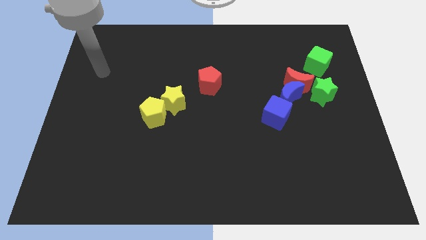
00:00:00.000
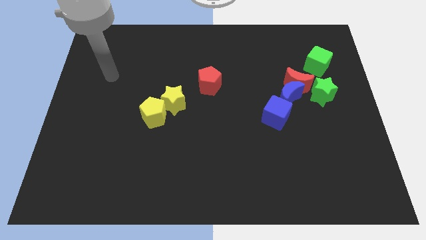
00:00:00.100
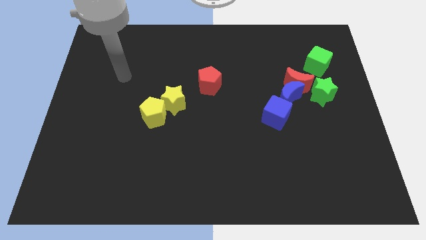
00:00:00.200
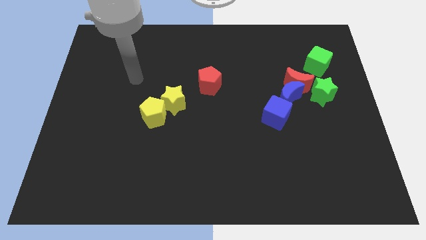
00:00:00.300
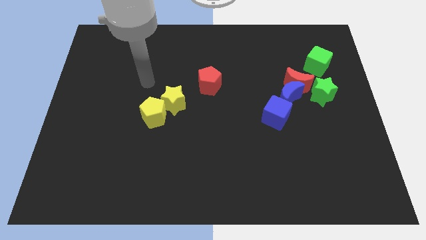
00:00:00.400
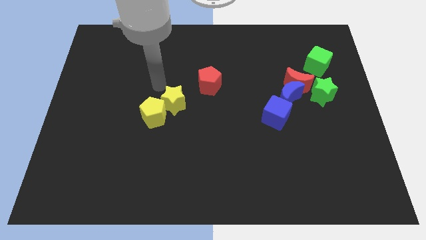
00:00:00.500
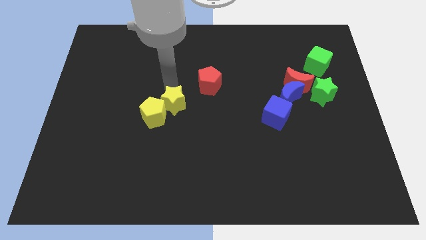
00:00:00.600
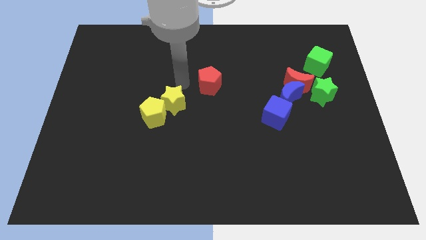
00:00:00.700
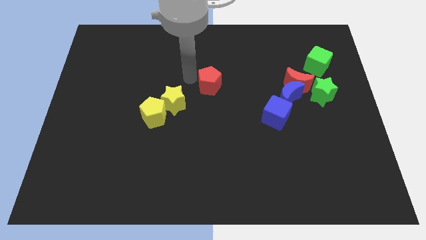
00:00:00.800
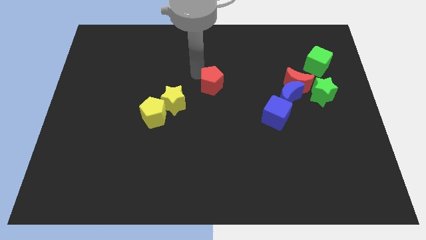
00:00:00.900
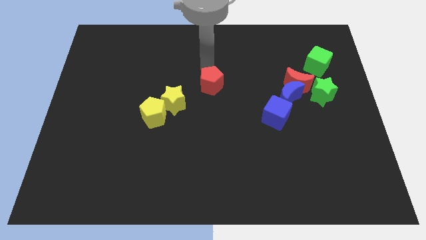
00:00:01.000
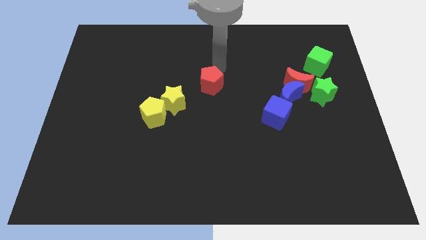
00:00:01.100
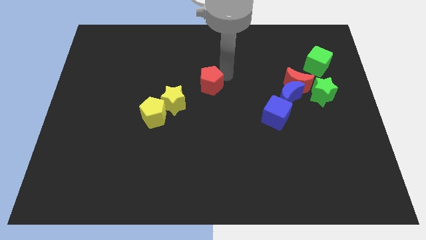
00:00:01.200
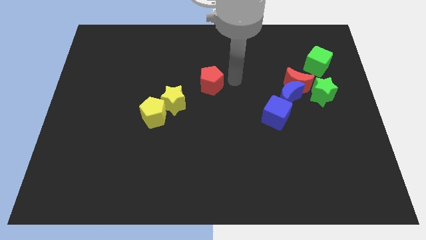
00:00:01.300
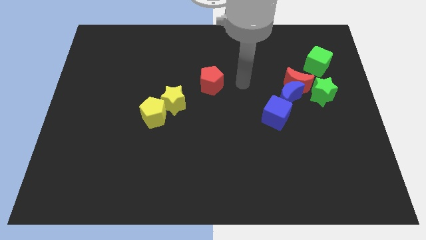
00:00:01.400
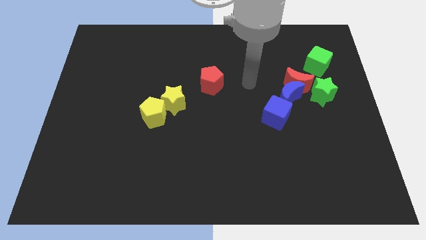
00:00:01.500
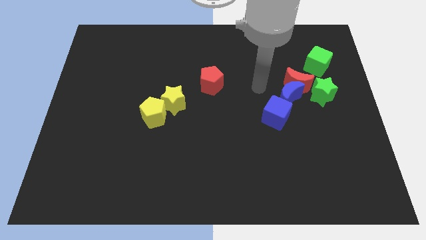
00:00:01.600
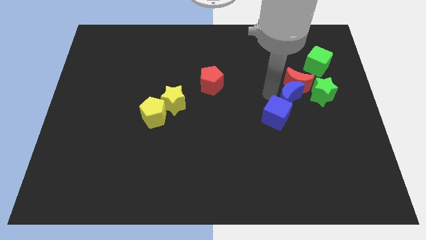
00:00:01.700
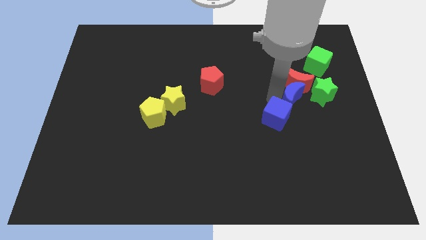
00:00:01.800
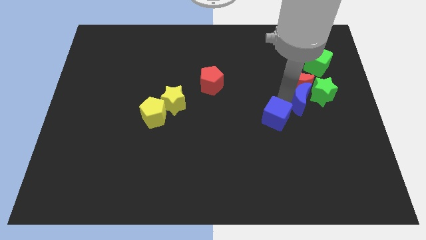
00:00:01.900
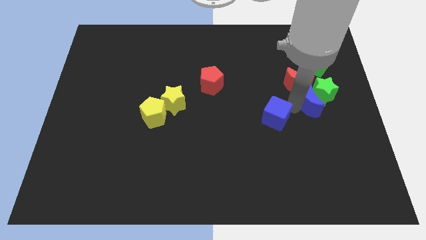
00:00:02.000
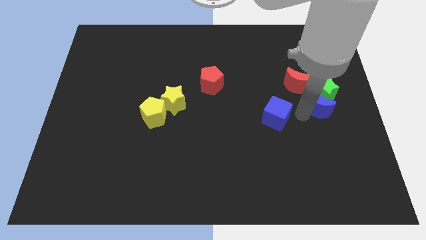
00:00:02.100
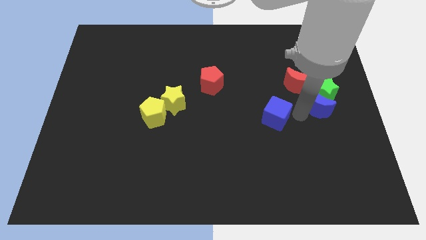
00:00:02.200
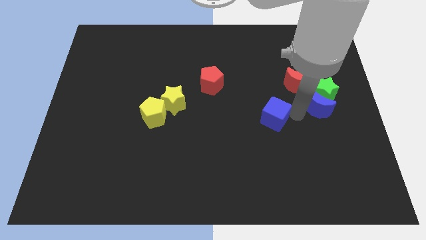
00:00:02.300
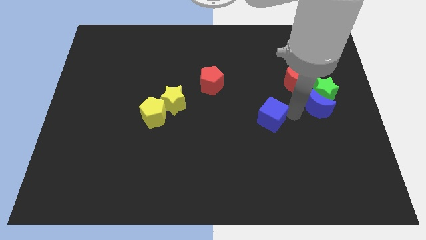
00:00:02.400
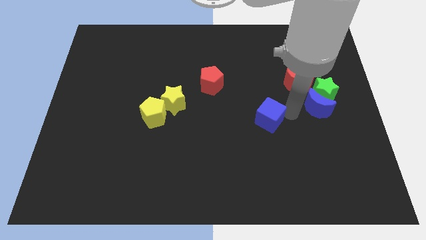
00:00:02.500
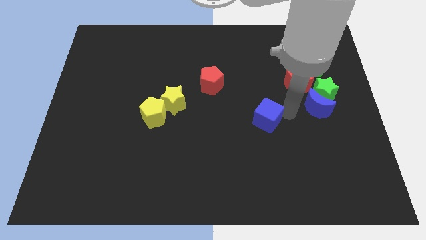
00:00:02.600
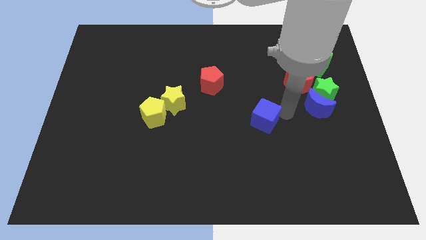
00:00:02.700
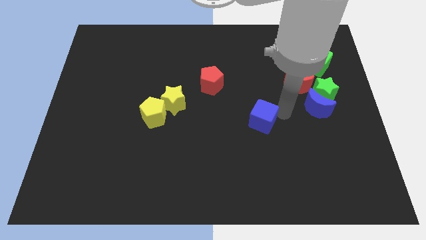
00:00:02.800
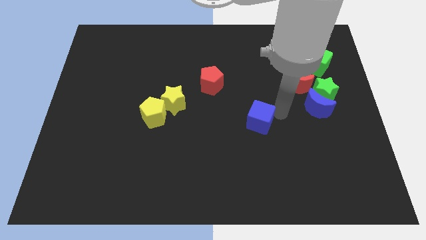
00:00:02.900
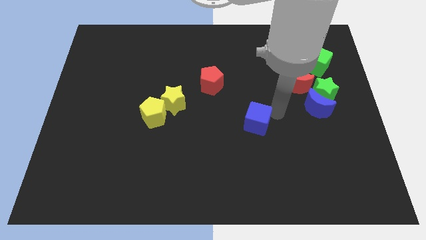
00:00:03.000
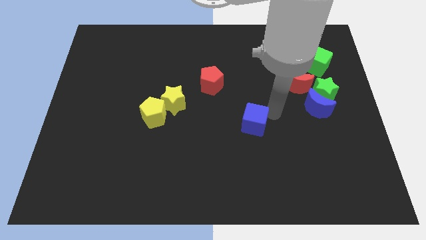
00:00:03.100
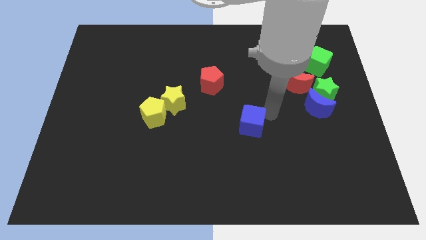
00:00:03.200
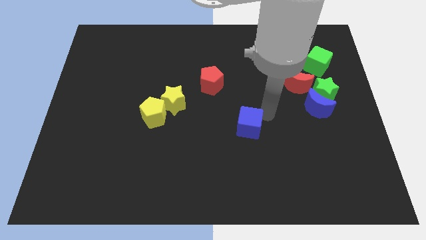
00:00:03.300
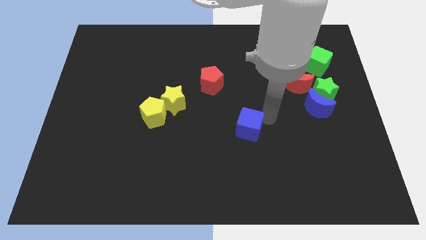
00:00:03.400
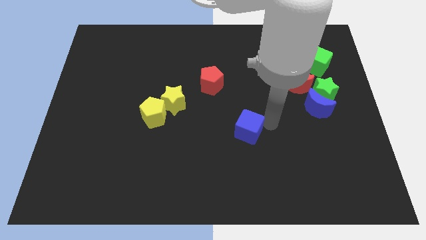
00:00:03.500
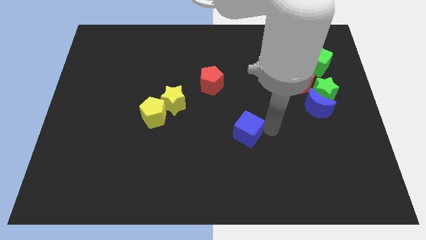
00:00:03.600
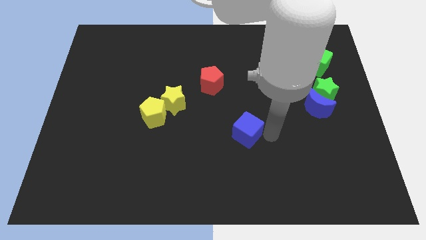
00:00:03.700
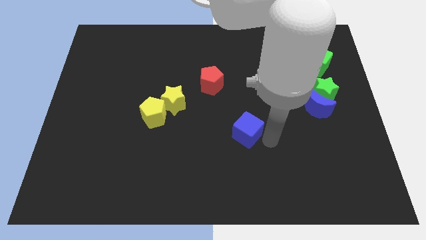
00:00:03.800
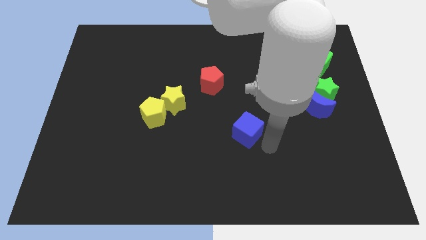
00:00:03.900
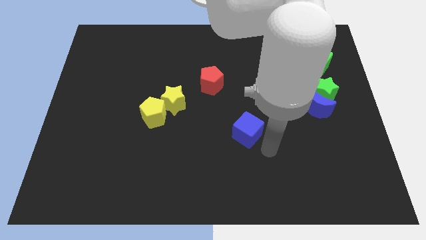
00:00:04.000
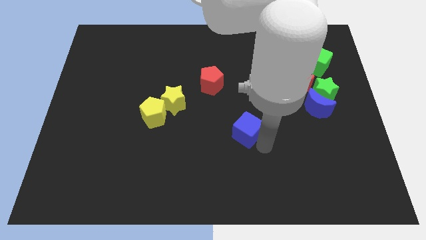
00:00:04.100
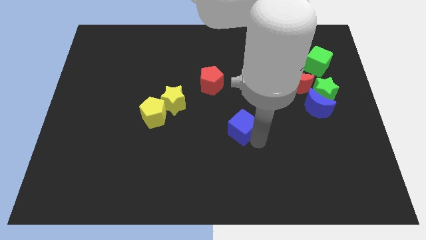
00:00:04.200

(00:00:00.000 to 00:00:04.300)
slightly push the blue cube left

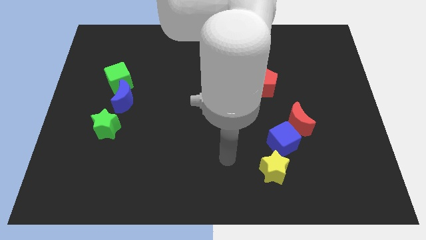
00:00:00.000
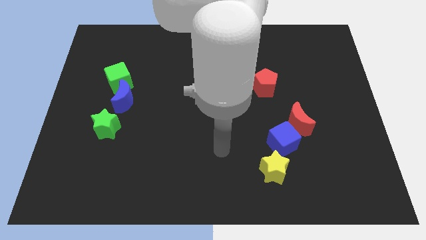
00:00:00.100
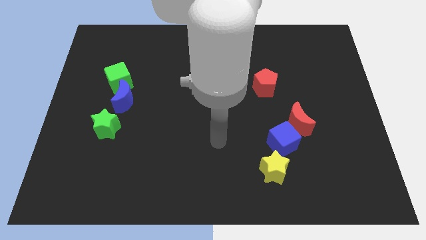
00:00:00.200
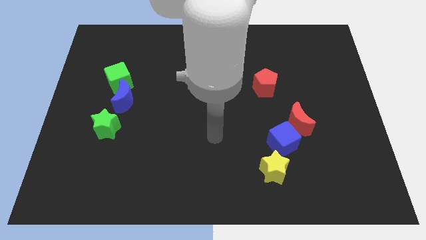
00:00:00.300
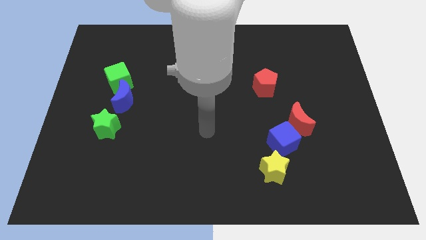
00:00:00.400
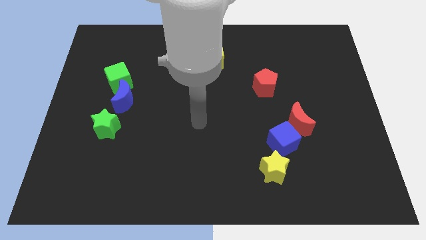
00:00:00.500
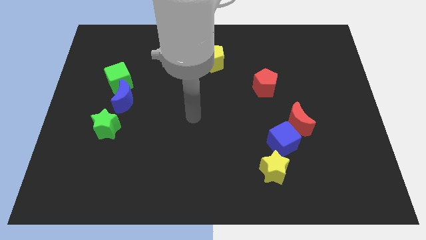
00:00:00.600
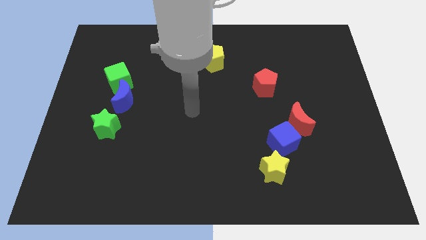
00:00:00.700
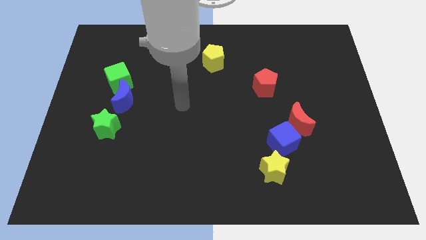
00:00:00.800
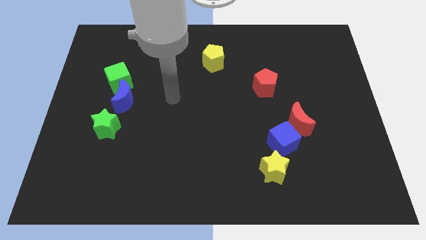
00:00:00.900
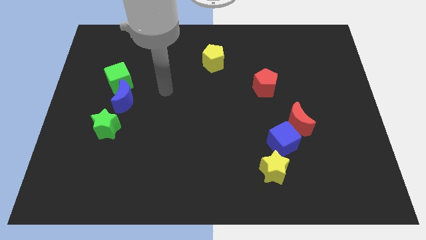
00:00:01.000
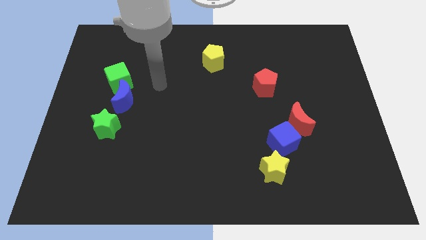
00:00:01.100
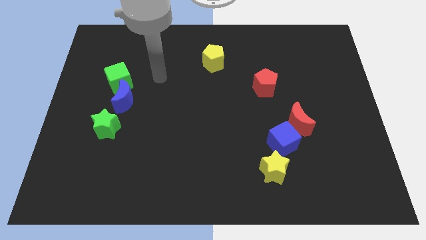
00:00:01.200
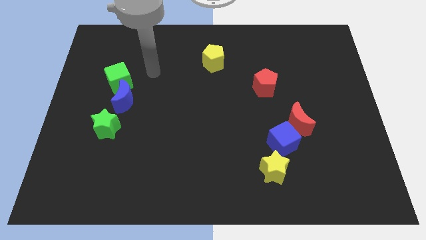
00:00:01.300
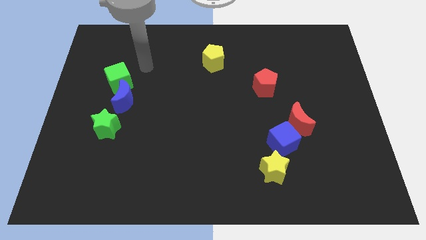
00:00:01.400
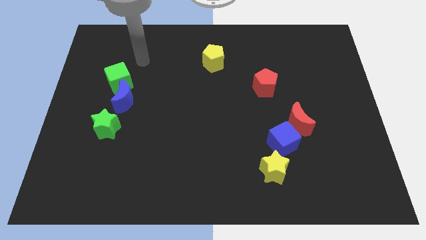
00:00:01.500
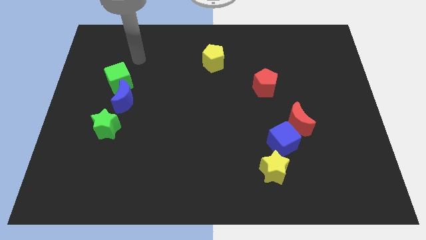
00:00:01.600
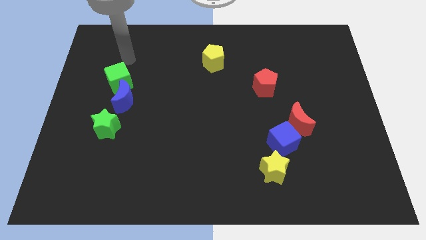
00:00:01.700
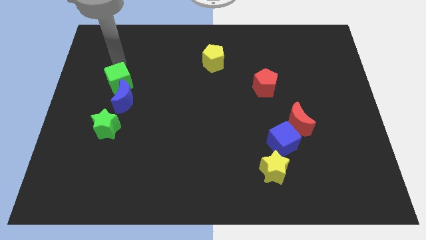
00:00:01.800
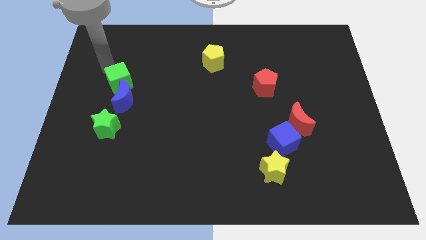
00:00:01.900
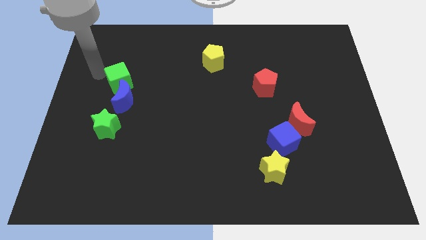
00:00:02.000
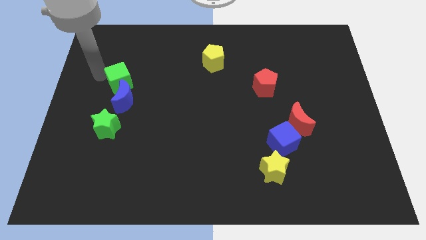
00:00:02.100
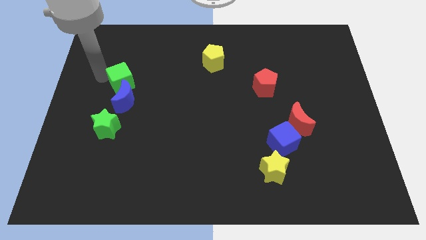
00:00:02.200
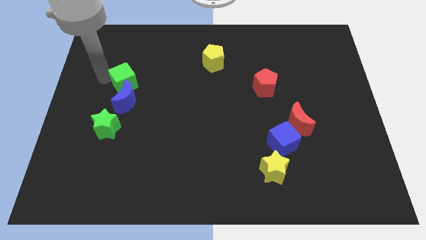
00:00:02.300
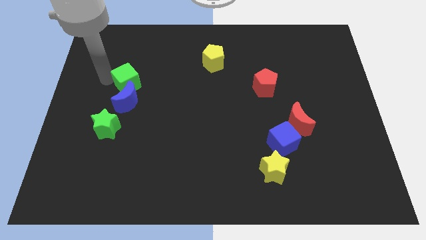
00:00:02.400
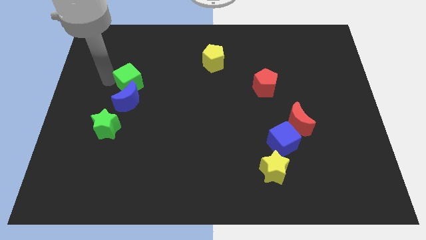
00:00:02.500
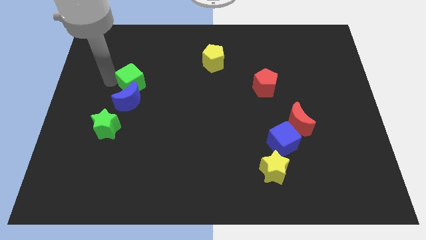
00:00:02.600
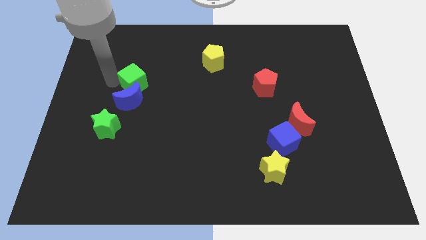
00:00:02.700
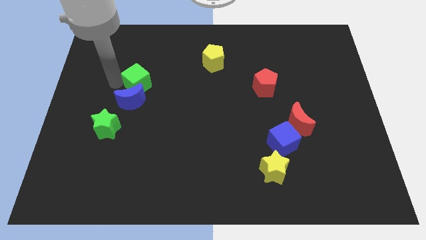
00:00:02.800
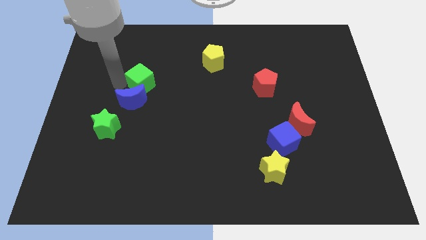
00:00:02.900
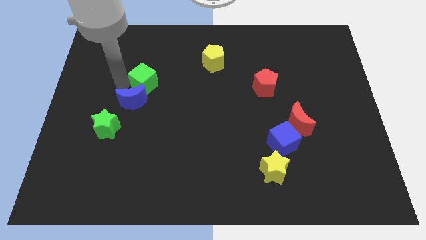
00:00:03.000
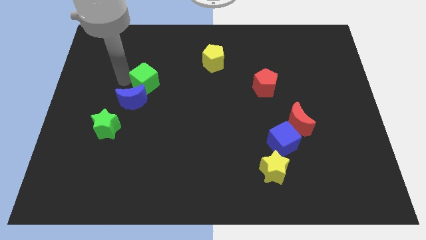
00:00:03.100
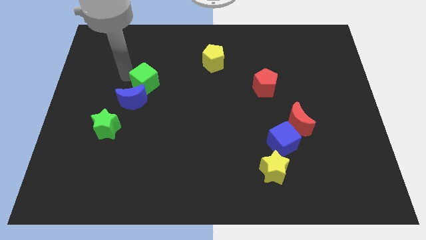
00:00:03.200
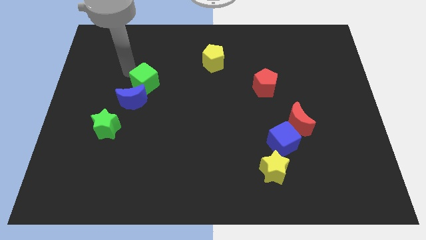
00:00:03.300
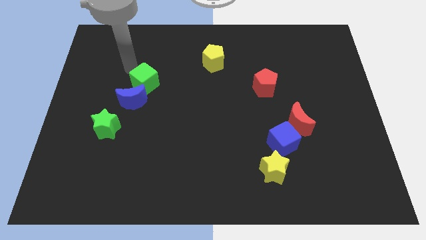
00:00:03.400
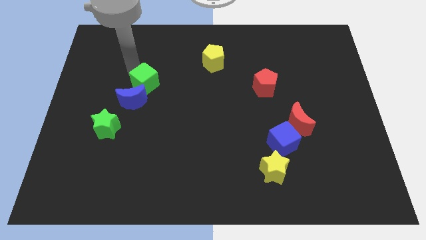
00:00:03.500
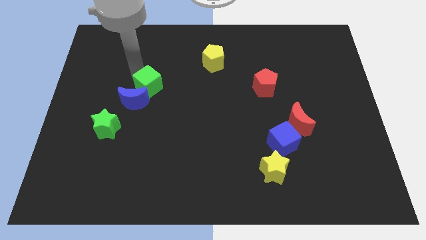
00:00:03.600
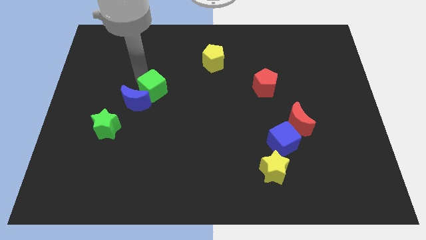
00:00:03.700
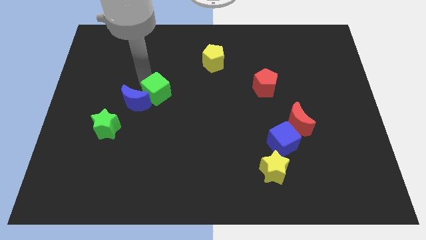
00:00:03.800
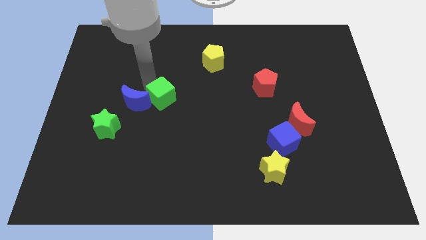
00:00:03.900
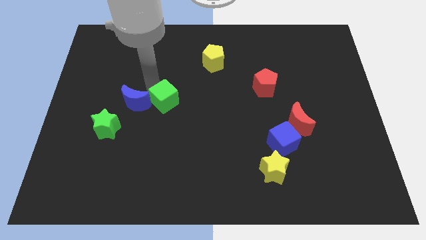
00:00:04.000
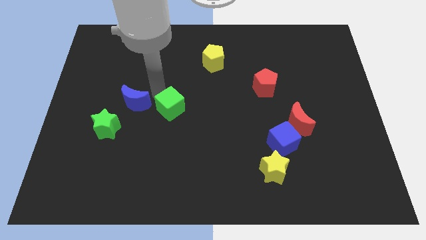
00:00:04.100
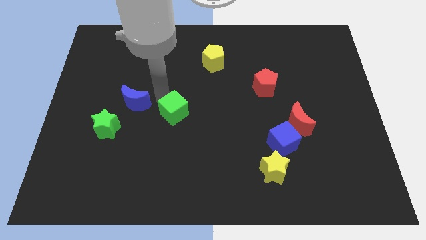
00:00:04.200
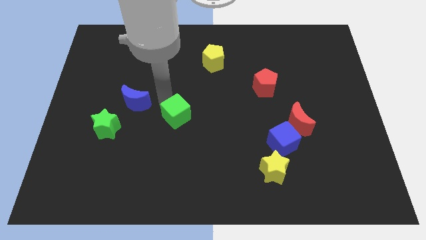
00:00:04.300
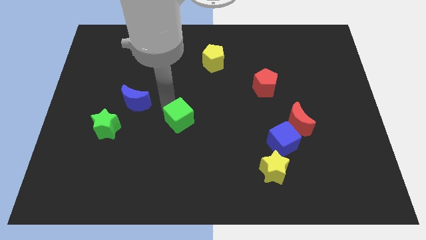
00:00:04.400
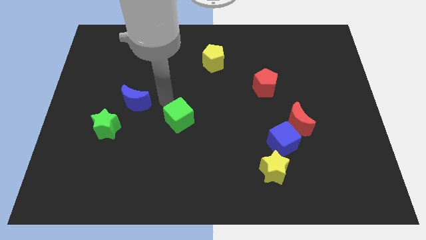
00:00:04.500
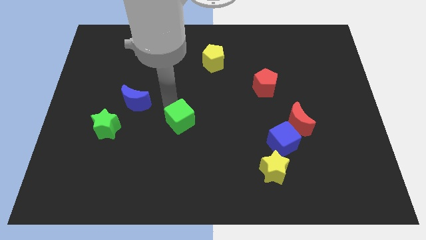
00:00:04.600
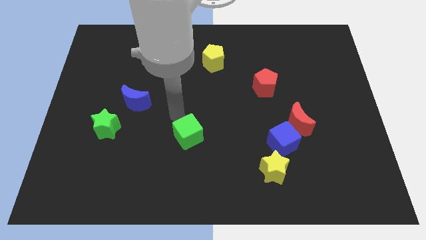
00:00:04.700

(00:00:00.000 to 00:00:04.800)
move the green cube down and to the right
